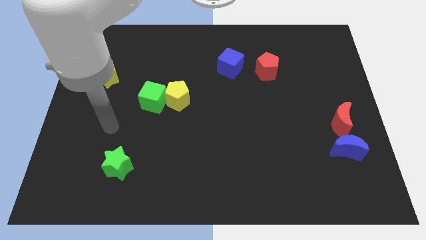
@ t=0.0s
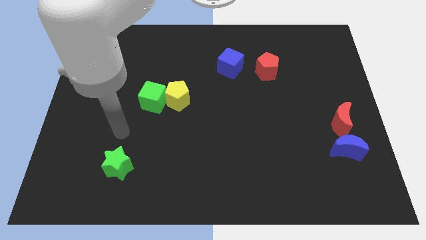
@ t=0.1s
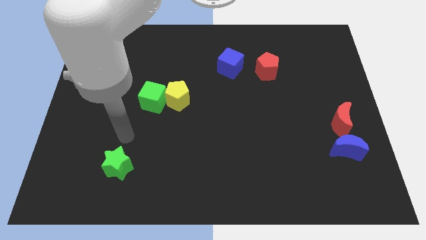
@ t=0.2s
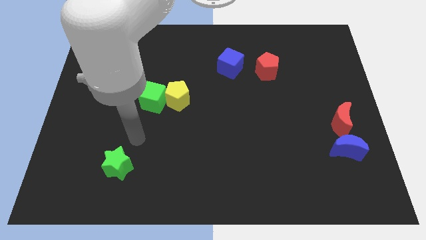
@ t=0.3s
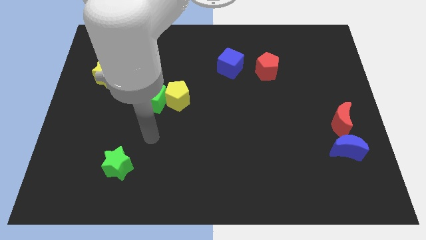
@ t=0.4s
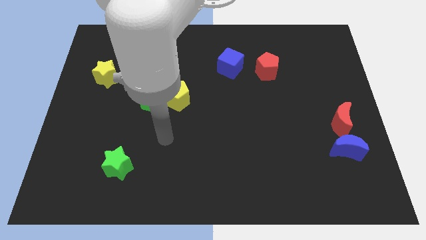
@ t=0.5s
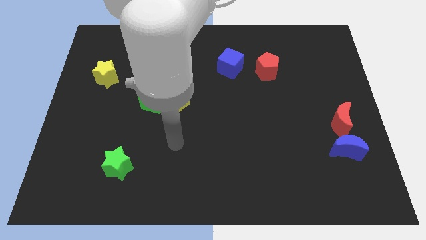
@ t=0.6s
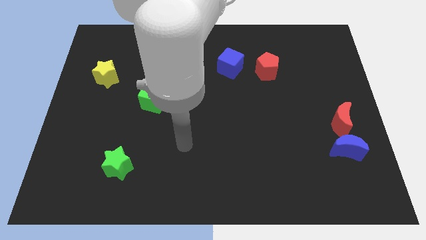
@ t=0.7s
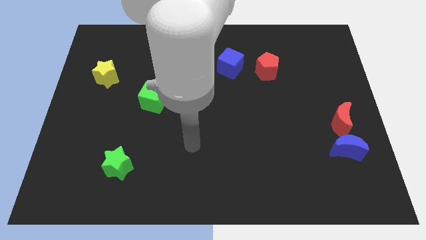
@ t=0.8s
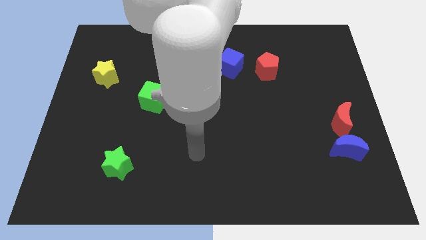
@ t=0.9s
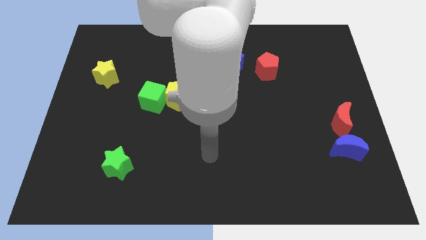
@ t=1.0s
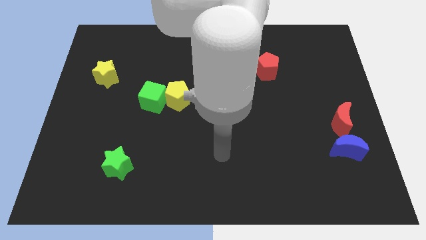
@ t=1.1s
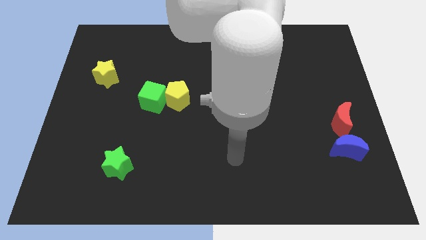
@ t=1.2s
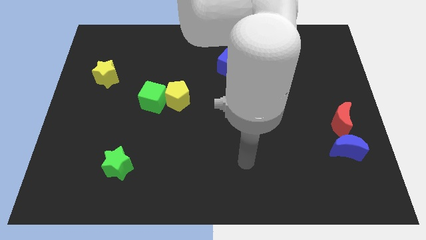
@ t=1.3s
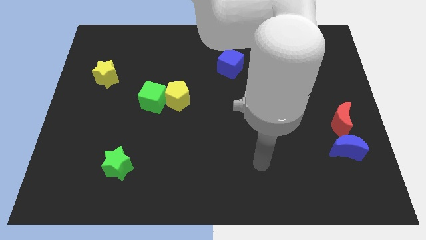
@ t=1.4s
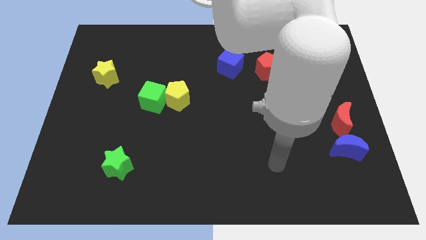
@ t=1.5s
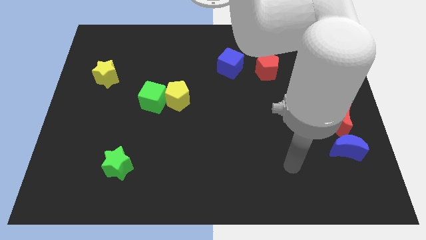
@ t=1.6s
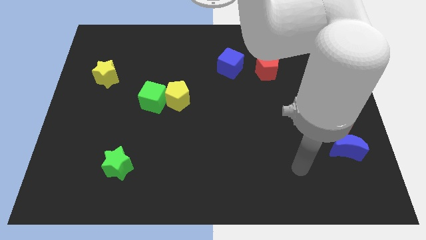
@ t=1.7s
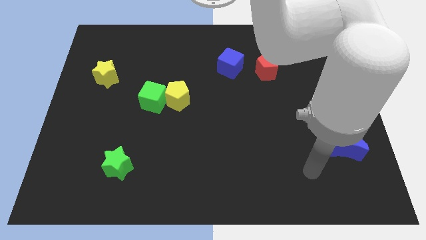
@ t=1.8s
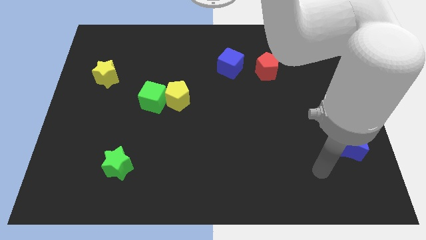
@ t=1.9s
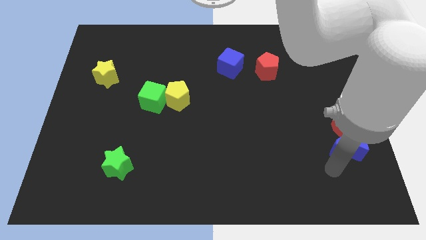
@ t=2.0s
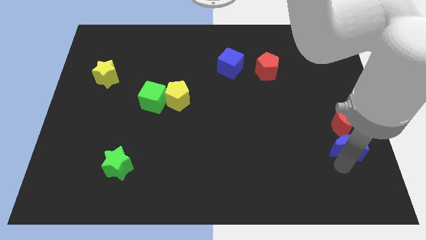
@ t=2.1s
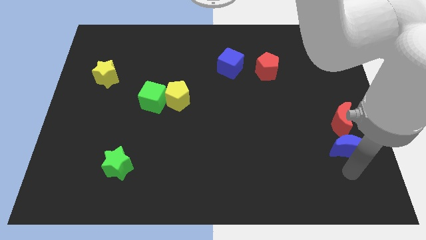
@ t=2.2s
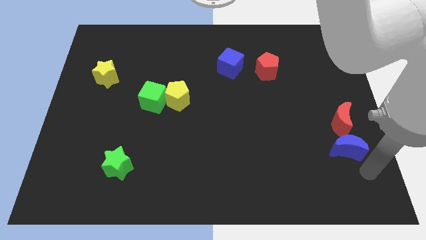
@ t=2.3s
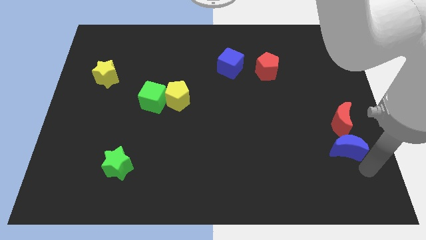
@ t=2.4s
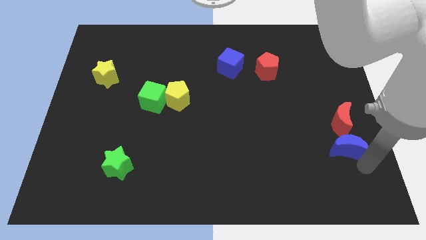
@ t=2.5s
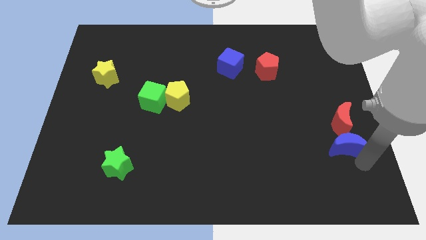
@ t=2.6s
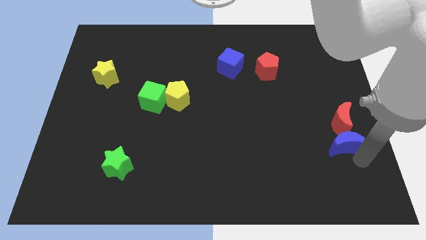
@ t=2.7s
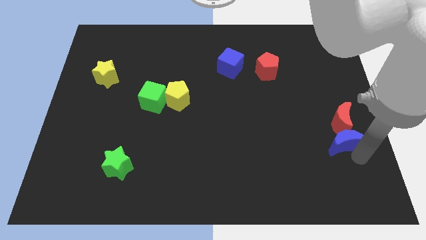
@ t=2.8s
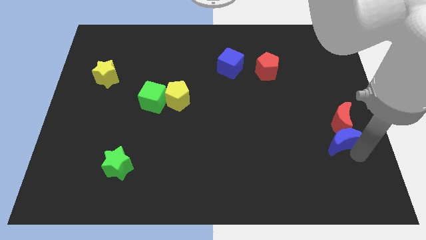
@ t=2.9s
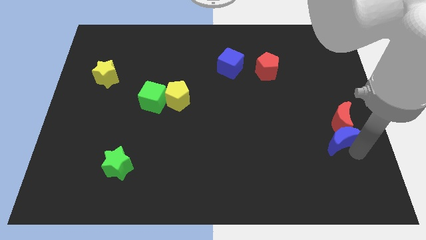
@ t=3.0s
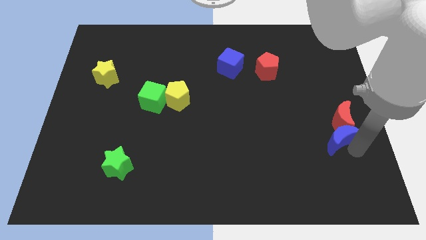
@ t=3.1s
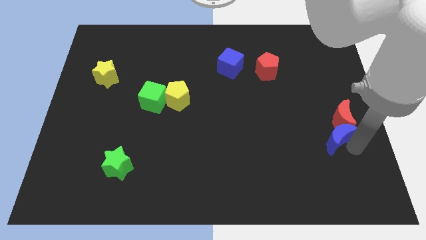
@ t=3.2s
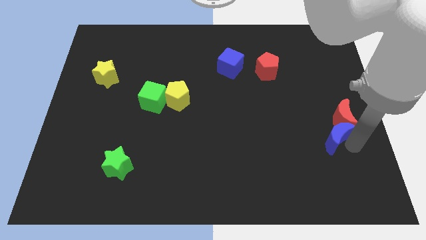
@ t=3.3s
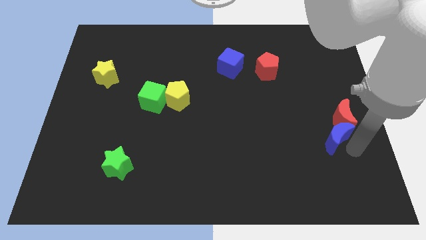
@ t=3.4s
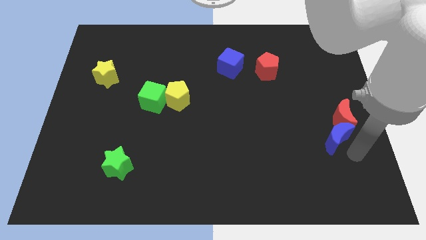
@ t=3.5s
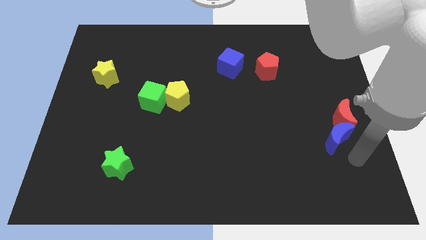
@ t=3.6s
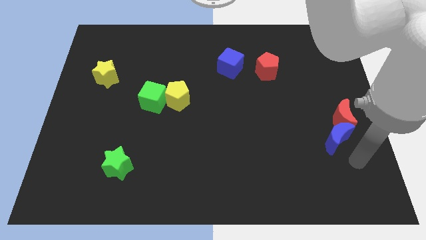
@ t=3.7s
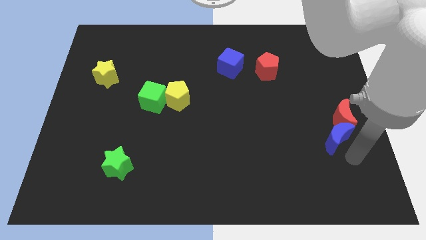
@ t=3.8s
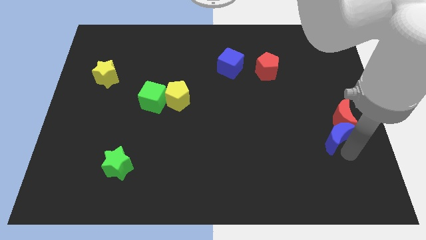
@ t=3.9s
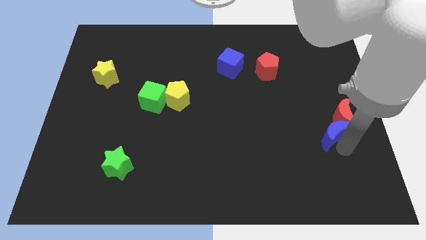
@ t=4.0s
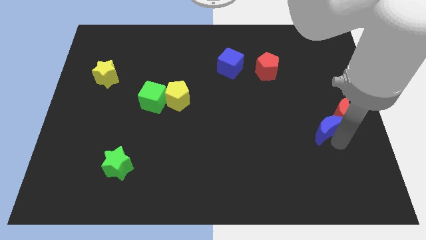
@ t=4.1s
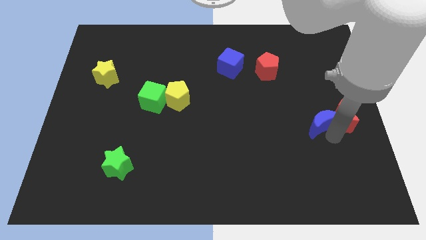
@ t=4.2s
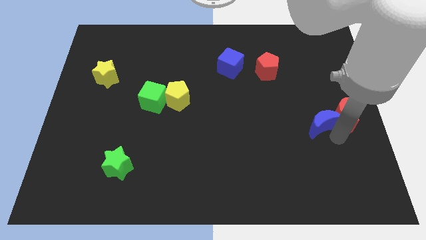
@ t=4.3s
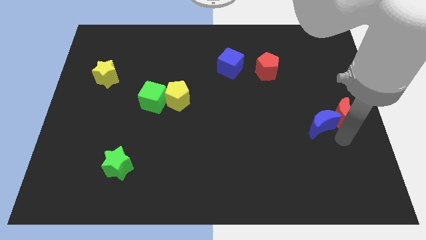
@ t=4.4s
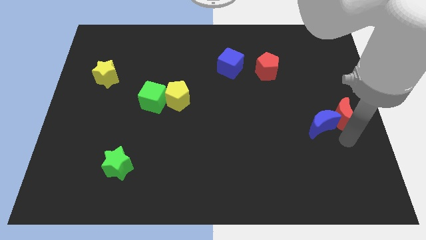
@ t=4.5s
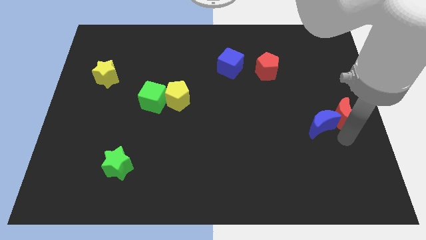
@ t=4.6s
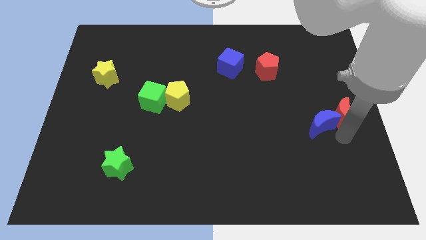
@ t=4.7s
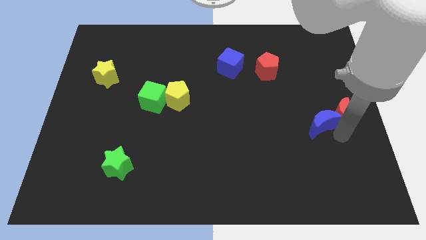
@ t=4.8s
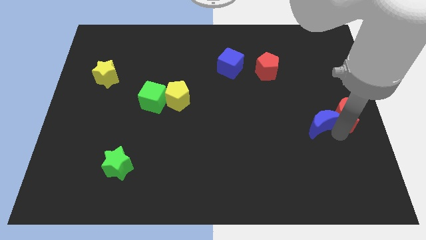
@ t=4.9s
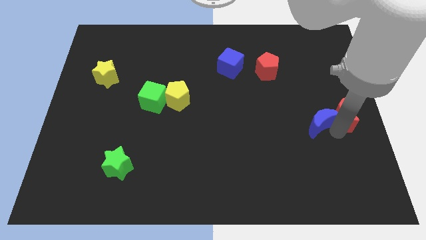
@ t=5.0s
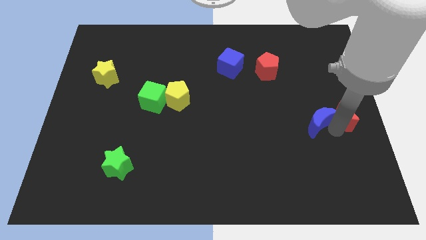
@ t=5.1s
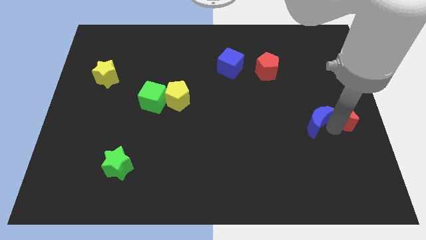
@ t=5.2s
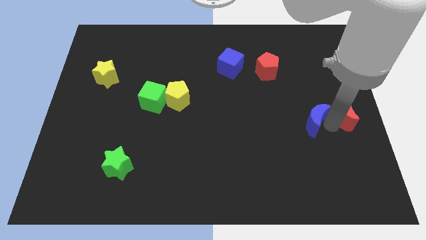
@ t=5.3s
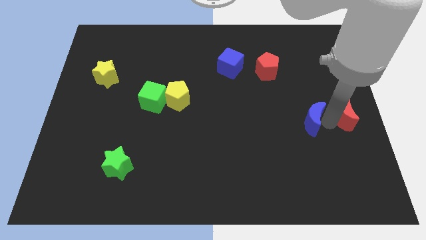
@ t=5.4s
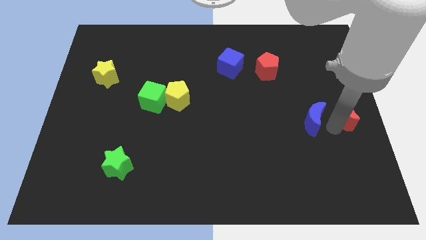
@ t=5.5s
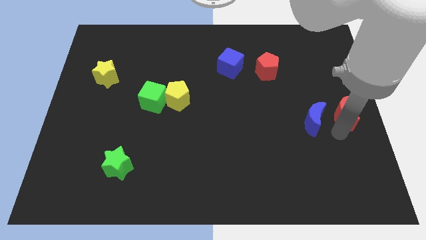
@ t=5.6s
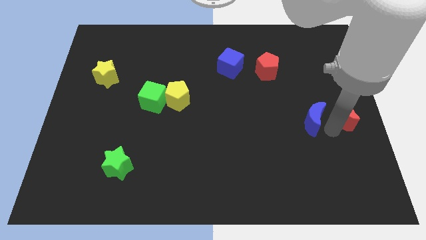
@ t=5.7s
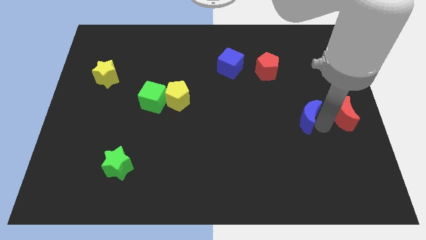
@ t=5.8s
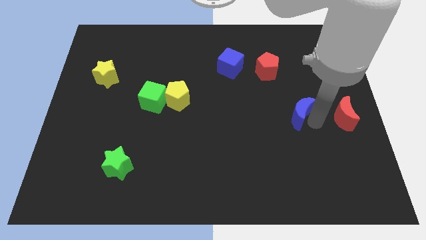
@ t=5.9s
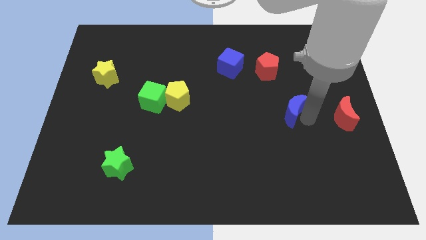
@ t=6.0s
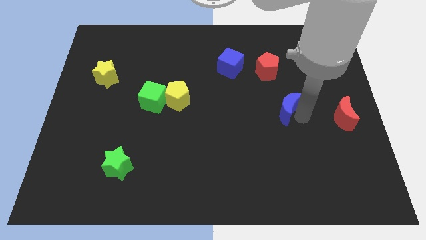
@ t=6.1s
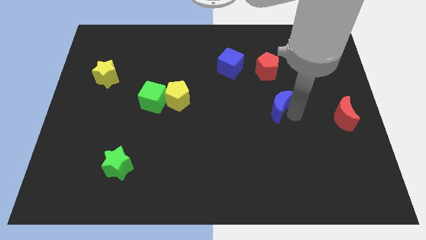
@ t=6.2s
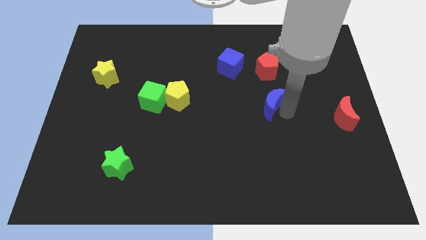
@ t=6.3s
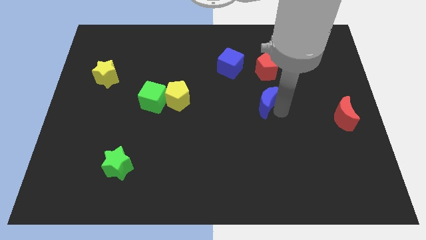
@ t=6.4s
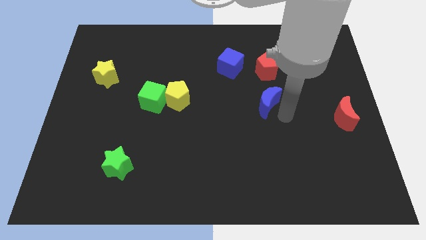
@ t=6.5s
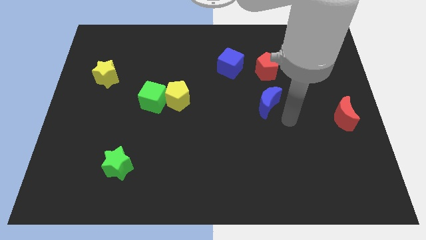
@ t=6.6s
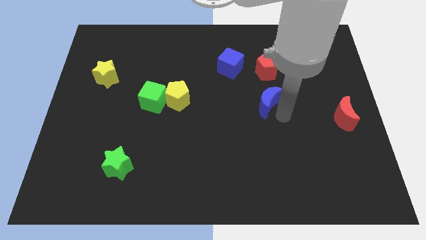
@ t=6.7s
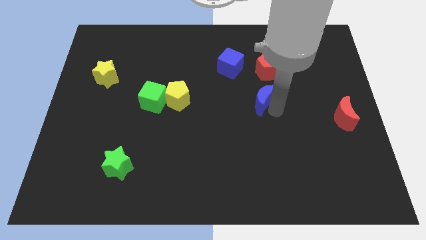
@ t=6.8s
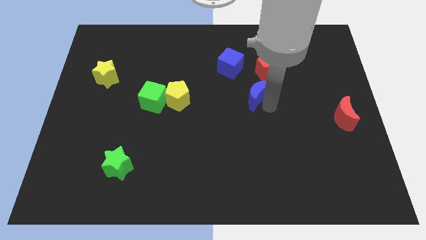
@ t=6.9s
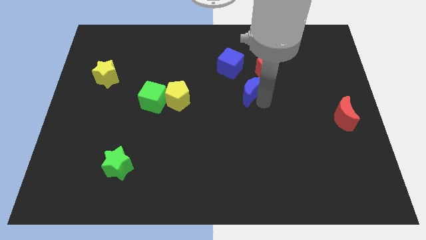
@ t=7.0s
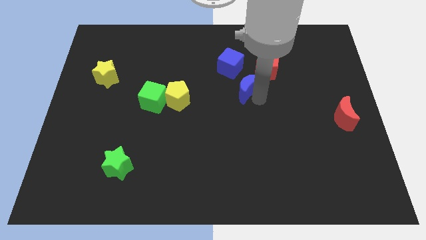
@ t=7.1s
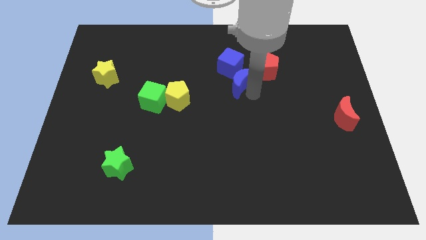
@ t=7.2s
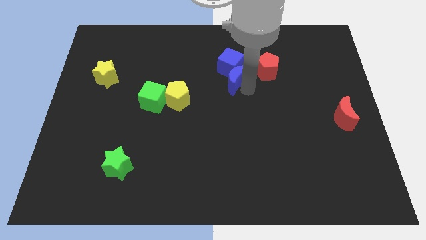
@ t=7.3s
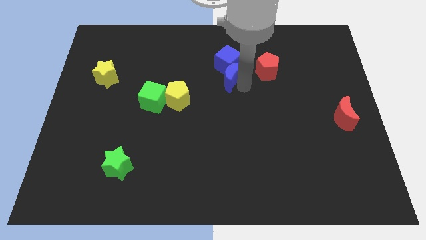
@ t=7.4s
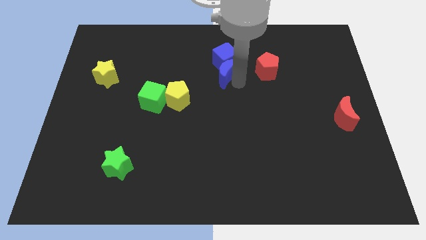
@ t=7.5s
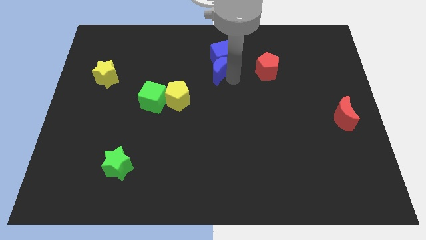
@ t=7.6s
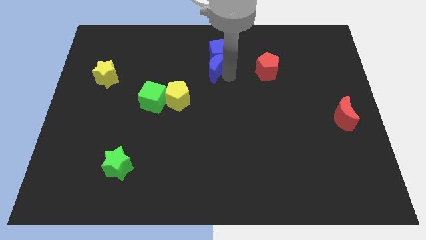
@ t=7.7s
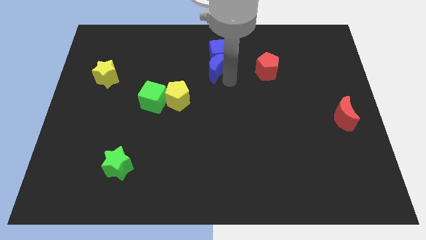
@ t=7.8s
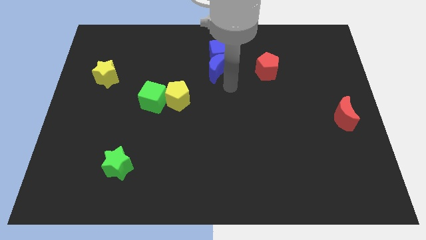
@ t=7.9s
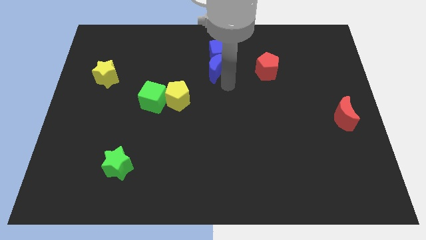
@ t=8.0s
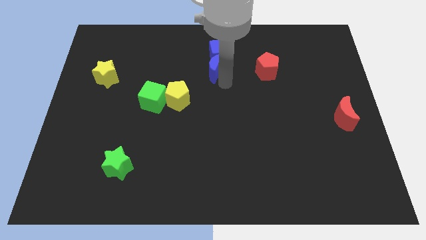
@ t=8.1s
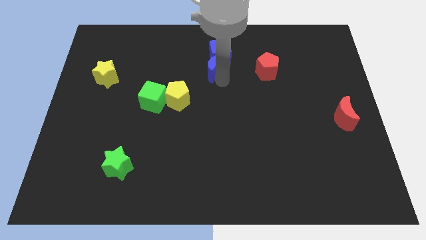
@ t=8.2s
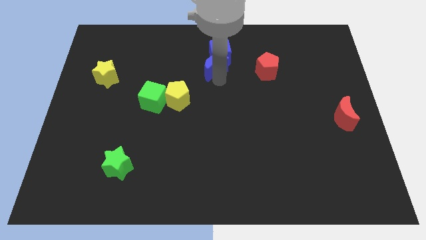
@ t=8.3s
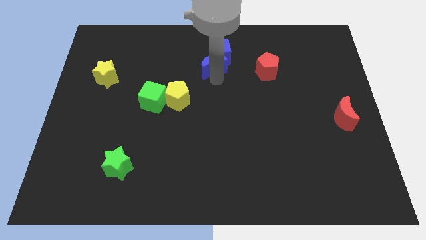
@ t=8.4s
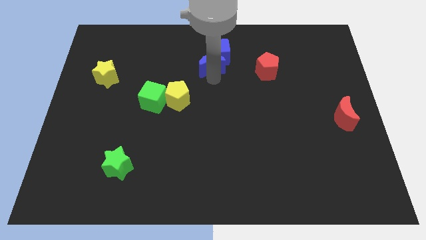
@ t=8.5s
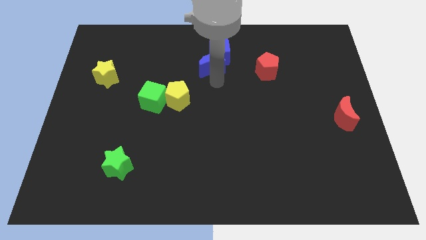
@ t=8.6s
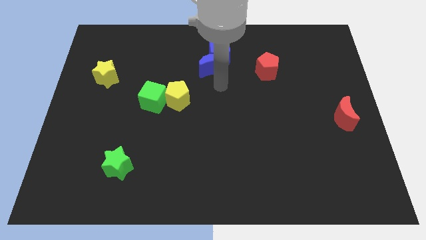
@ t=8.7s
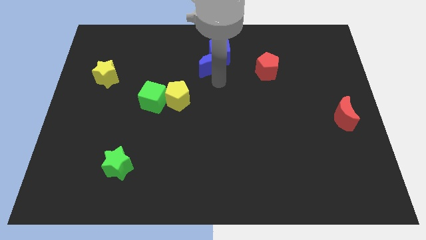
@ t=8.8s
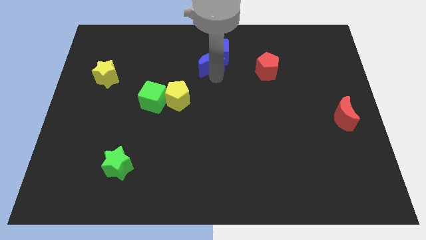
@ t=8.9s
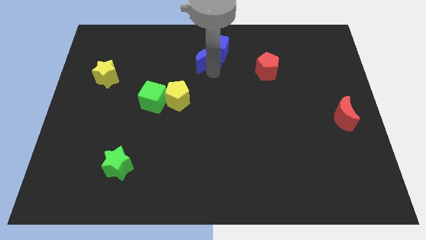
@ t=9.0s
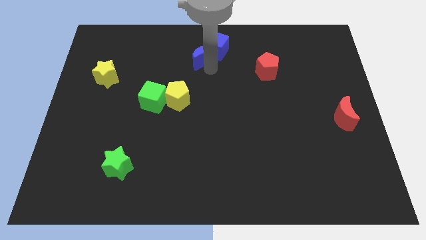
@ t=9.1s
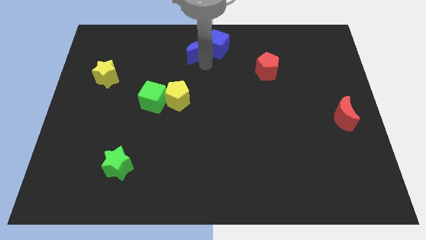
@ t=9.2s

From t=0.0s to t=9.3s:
move the blue moon to the top
